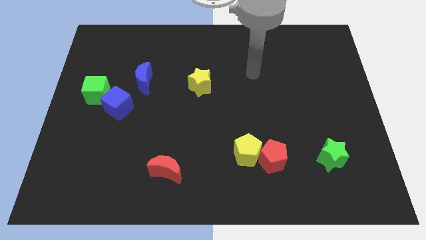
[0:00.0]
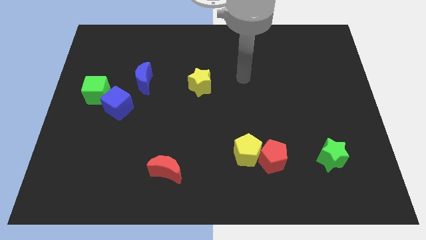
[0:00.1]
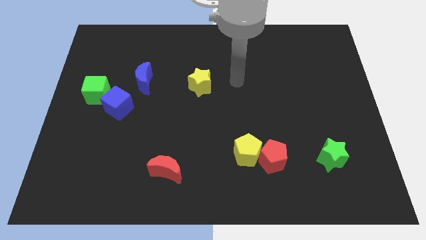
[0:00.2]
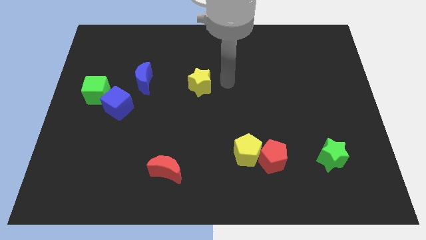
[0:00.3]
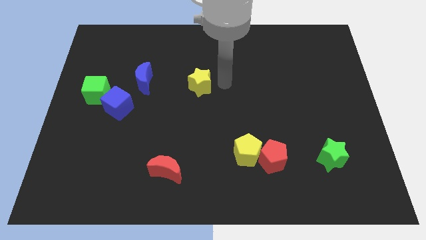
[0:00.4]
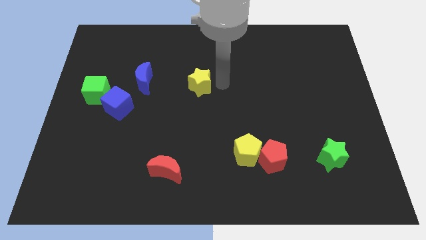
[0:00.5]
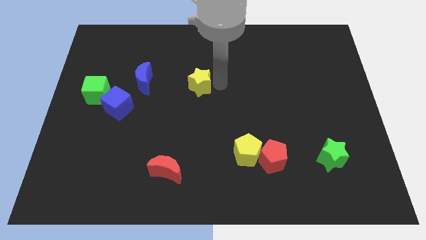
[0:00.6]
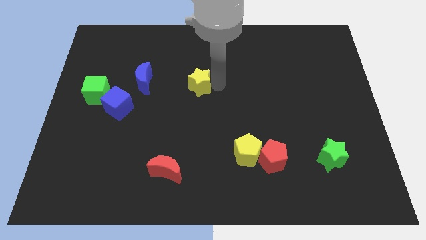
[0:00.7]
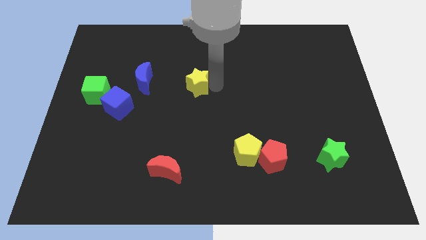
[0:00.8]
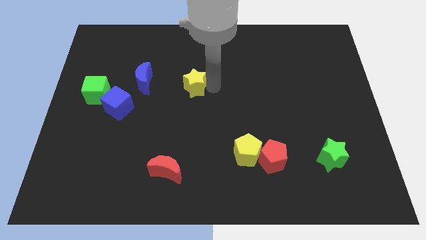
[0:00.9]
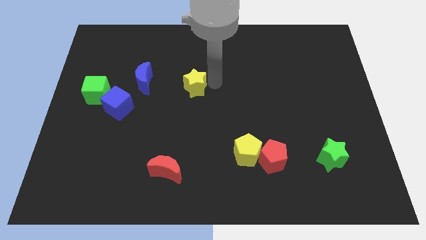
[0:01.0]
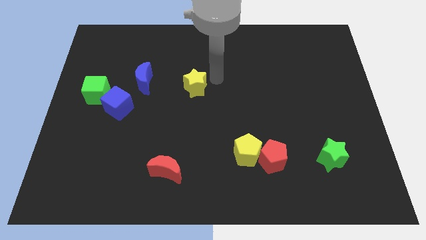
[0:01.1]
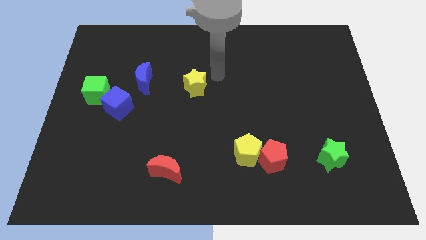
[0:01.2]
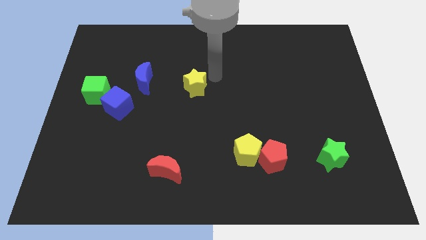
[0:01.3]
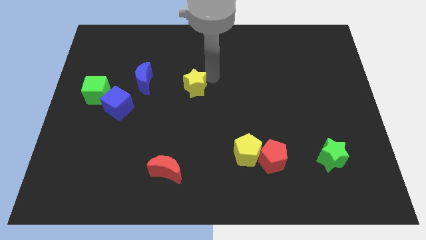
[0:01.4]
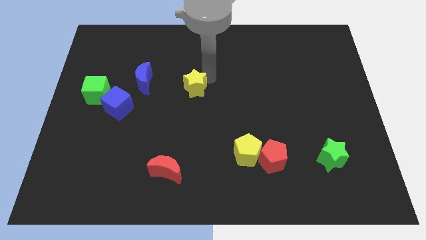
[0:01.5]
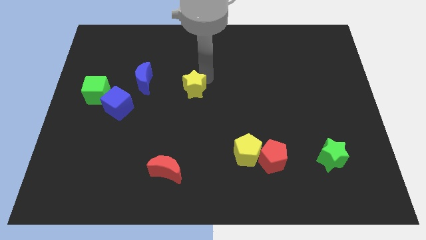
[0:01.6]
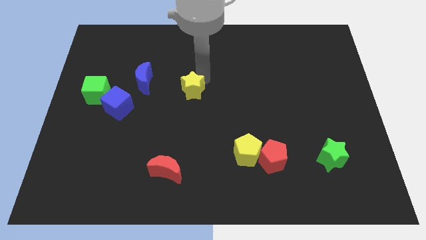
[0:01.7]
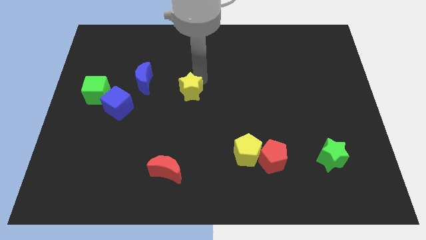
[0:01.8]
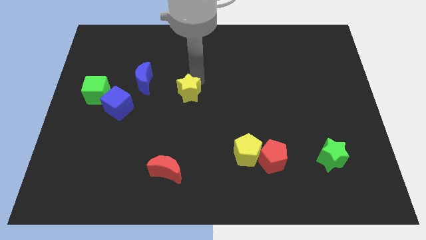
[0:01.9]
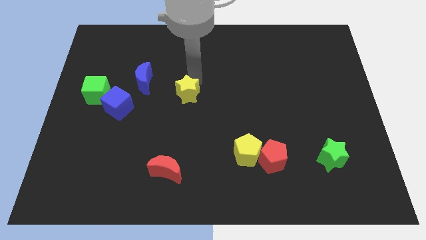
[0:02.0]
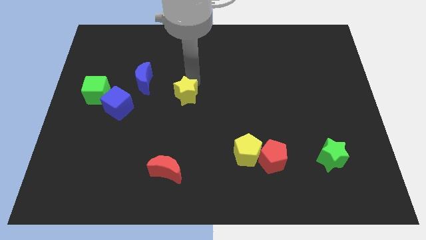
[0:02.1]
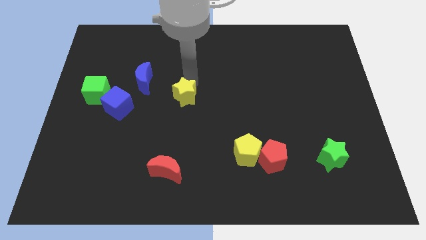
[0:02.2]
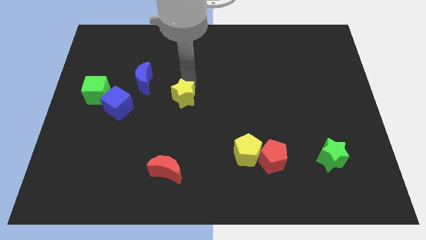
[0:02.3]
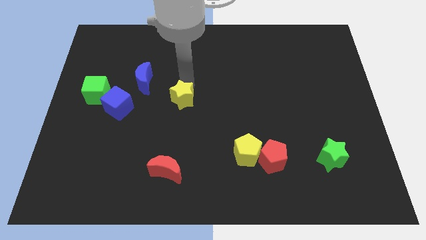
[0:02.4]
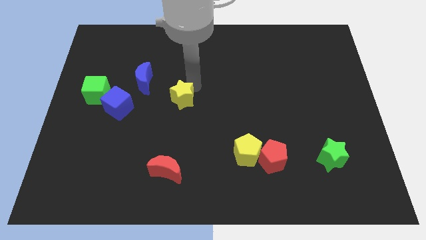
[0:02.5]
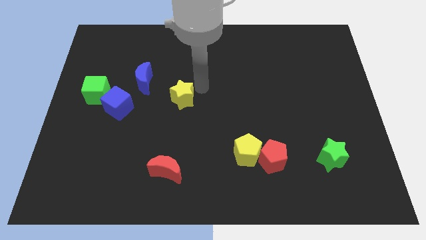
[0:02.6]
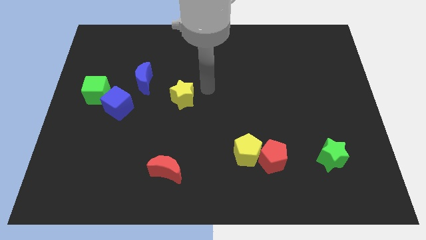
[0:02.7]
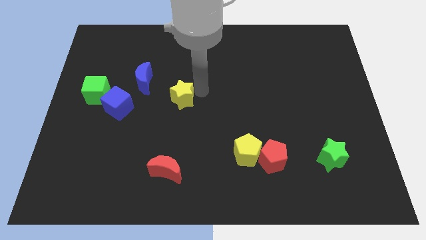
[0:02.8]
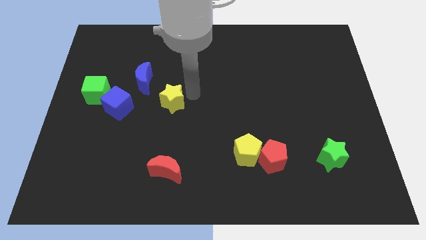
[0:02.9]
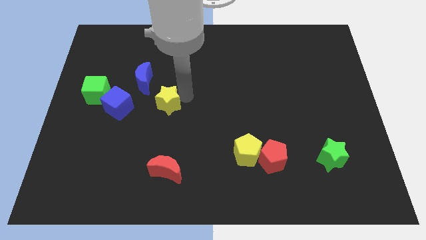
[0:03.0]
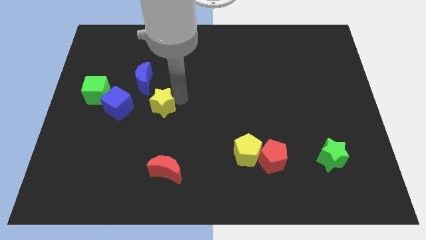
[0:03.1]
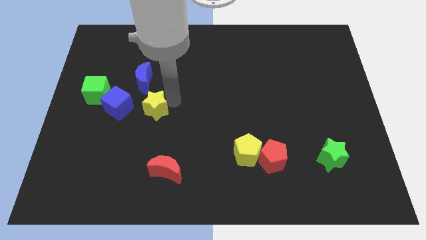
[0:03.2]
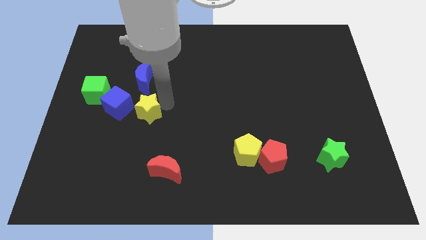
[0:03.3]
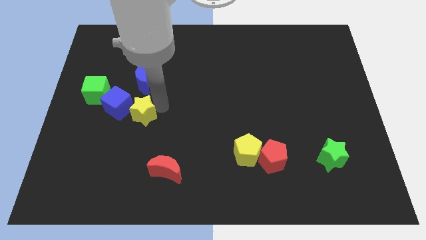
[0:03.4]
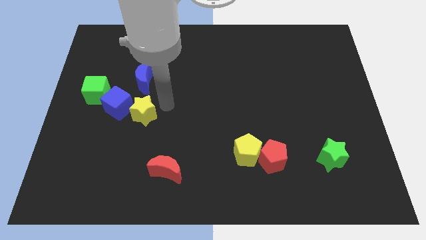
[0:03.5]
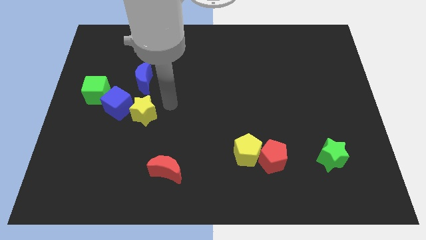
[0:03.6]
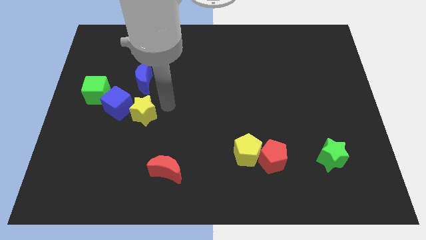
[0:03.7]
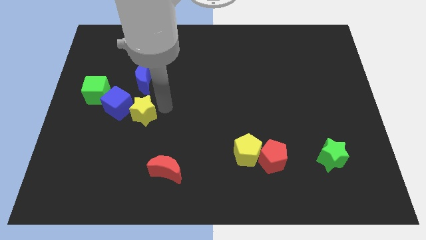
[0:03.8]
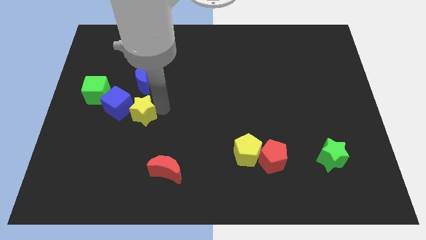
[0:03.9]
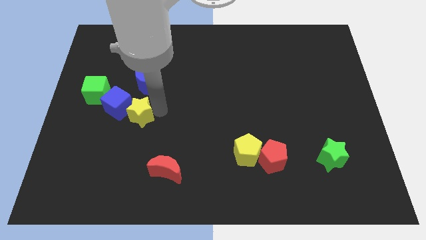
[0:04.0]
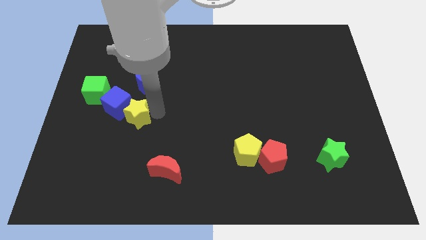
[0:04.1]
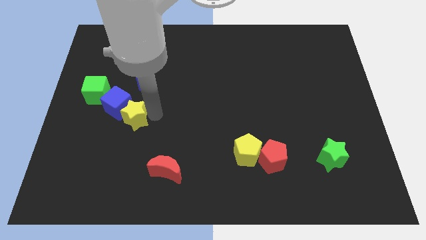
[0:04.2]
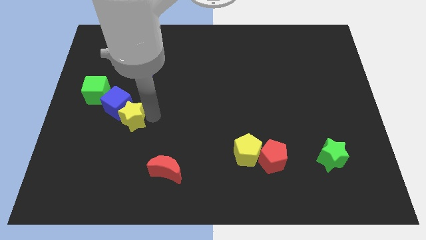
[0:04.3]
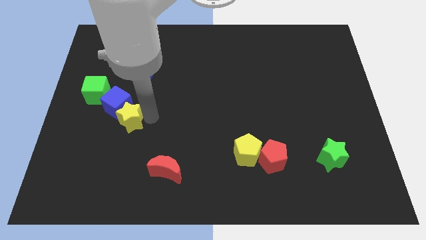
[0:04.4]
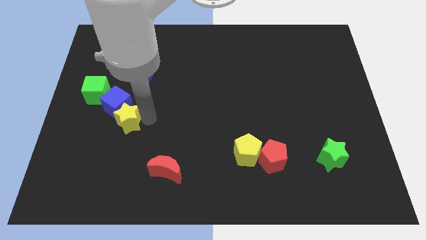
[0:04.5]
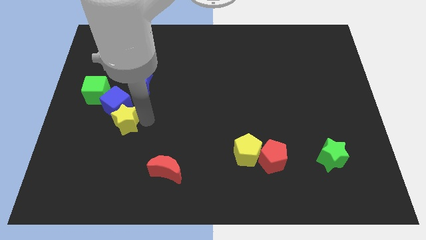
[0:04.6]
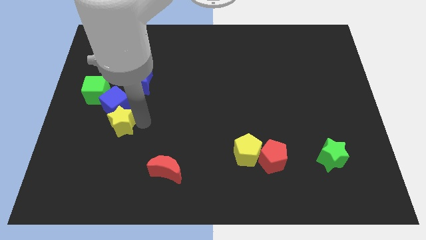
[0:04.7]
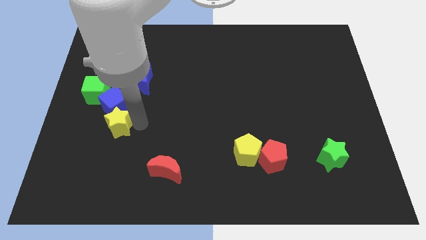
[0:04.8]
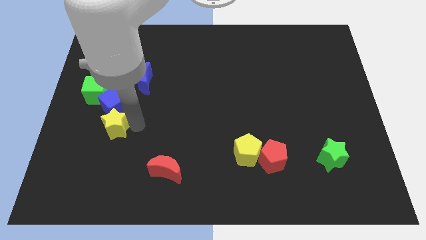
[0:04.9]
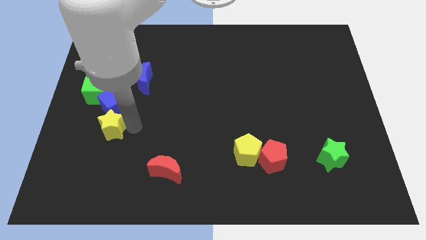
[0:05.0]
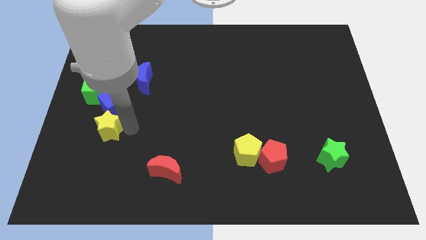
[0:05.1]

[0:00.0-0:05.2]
slide the yellow star to the bottom of the green cube

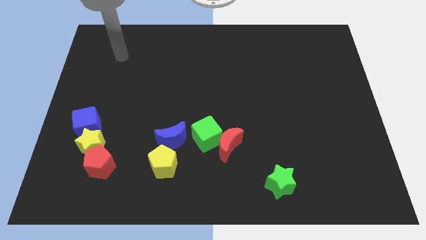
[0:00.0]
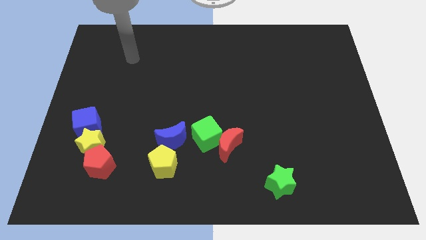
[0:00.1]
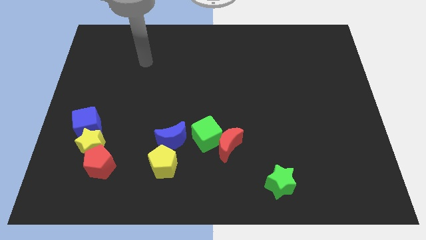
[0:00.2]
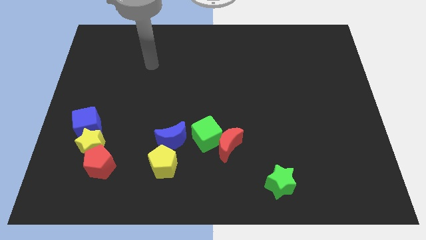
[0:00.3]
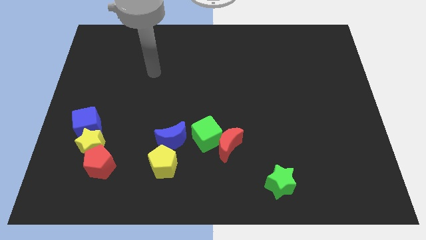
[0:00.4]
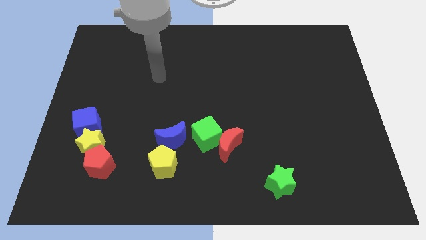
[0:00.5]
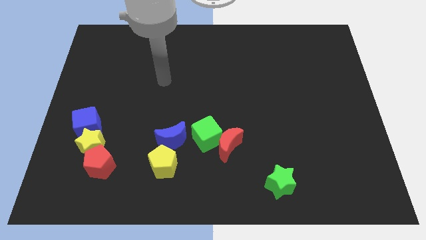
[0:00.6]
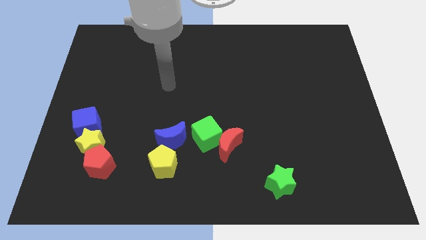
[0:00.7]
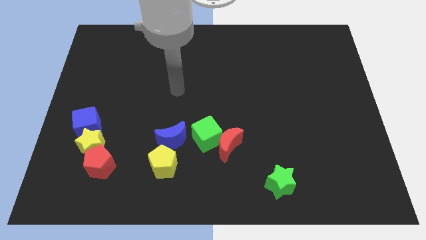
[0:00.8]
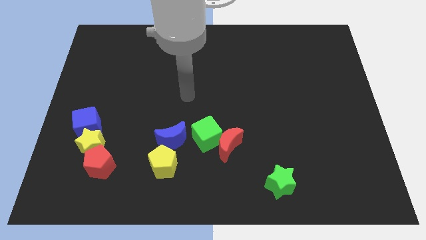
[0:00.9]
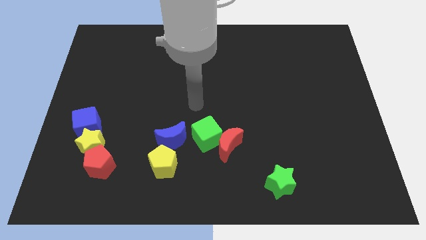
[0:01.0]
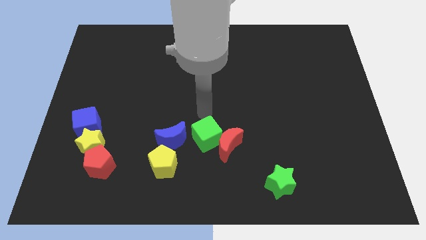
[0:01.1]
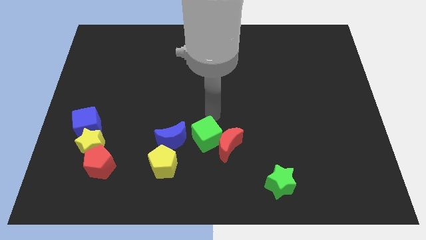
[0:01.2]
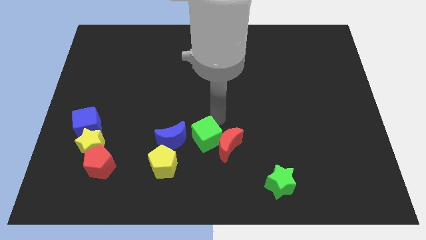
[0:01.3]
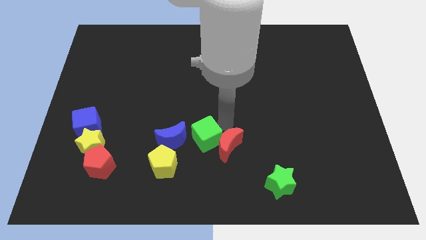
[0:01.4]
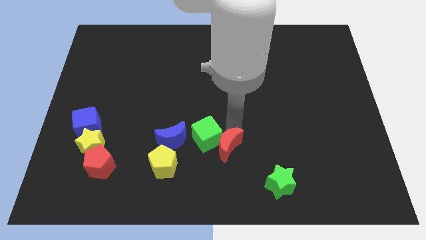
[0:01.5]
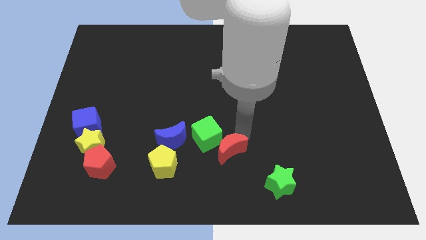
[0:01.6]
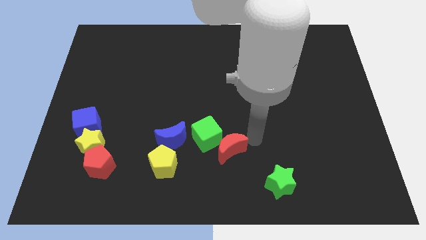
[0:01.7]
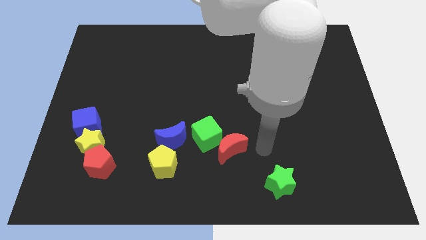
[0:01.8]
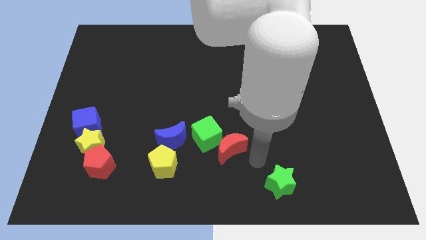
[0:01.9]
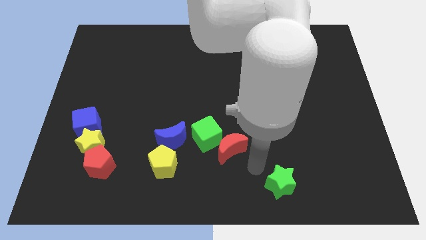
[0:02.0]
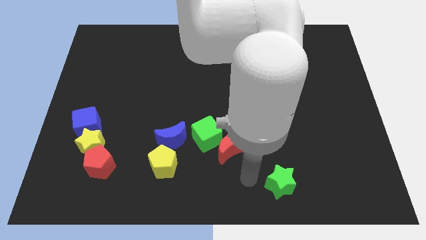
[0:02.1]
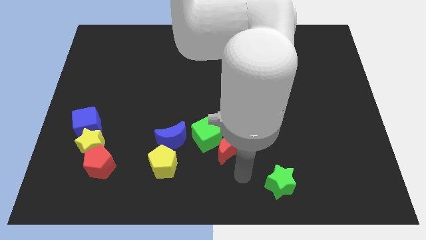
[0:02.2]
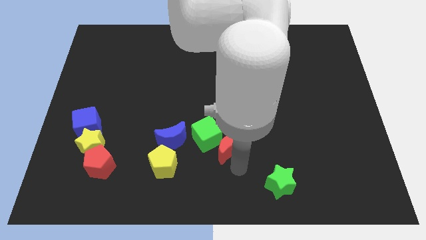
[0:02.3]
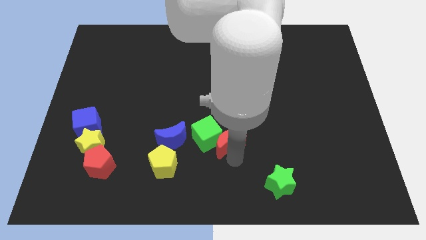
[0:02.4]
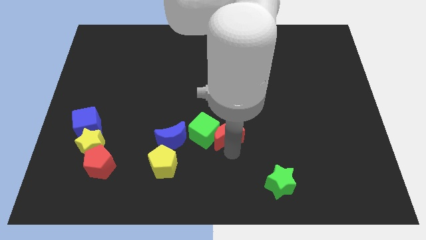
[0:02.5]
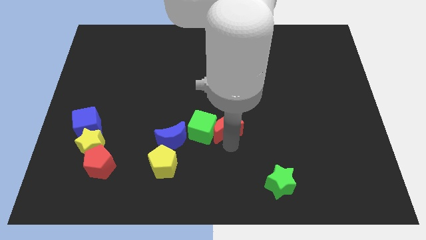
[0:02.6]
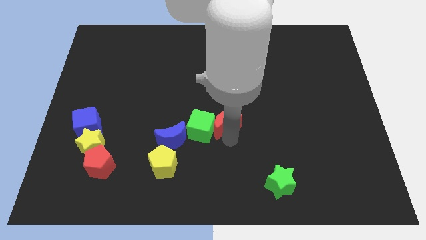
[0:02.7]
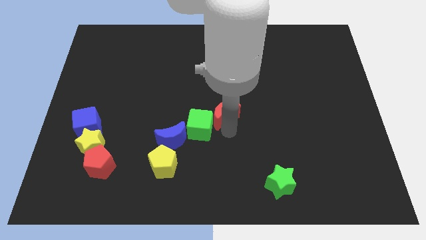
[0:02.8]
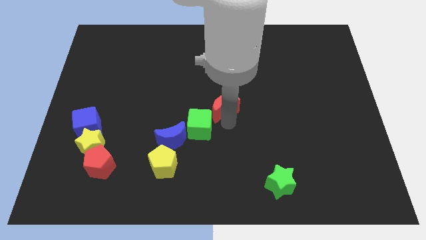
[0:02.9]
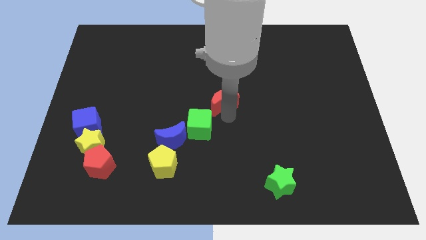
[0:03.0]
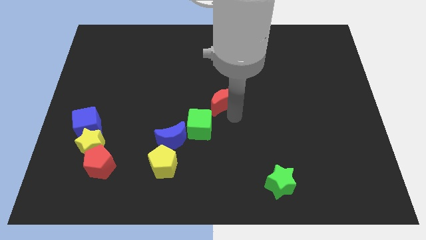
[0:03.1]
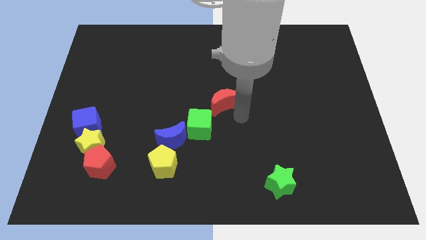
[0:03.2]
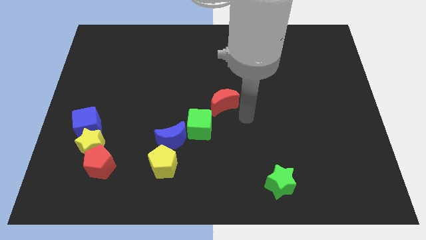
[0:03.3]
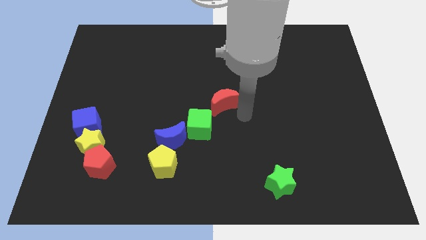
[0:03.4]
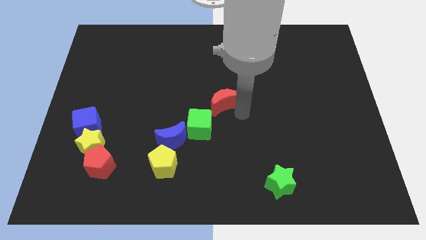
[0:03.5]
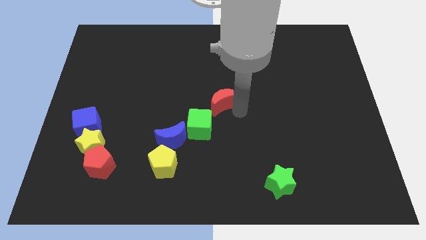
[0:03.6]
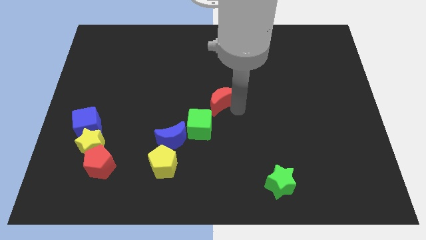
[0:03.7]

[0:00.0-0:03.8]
put the red moon to the top of the green cube
